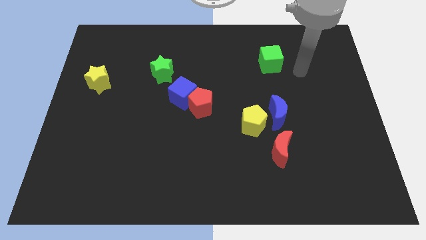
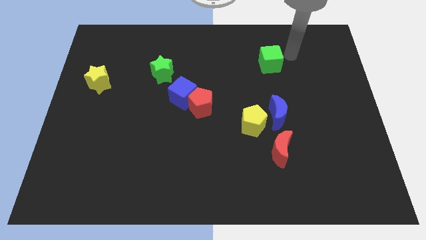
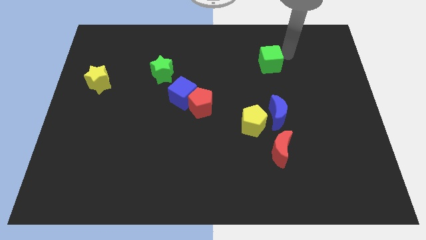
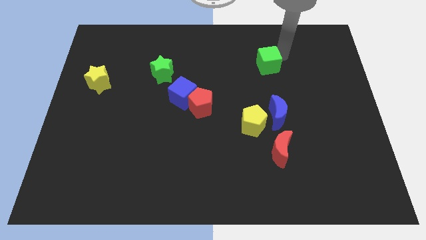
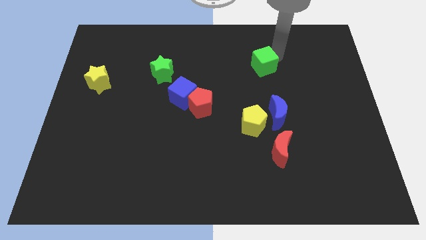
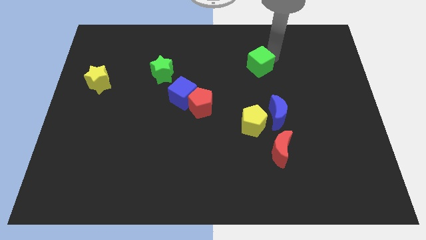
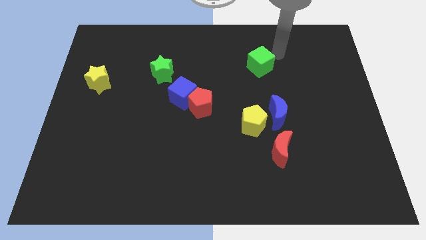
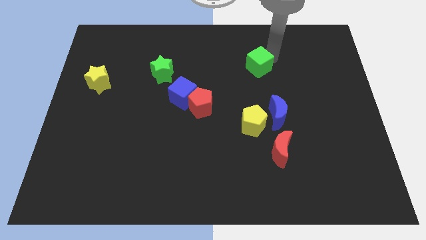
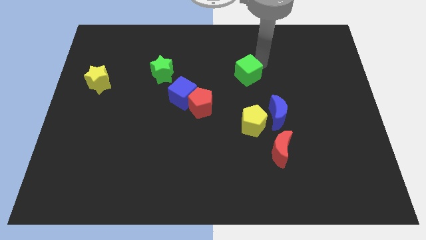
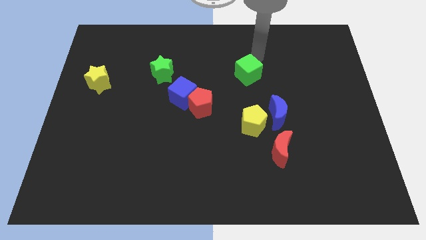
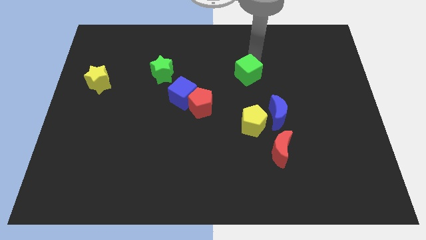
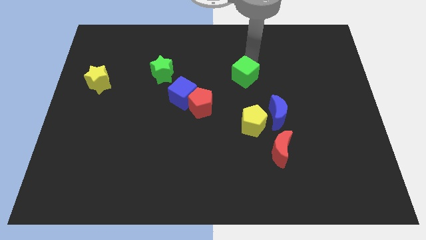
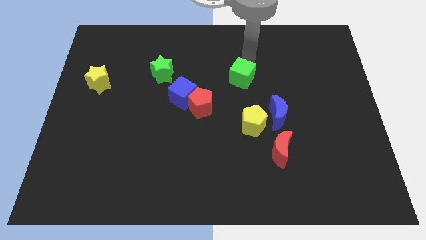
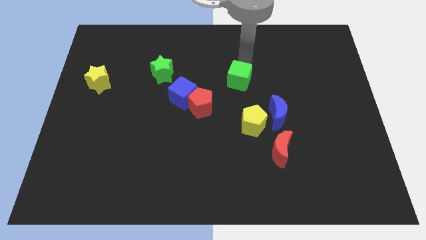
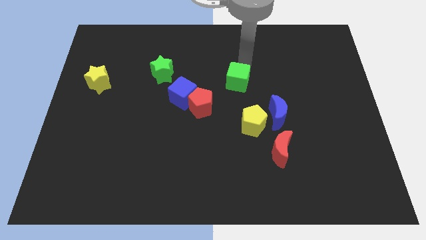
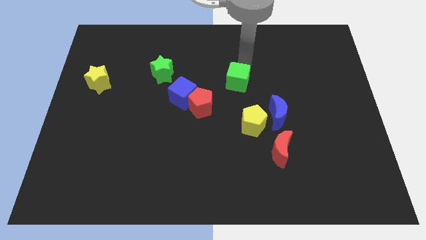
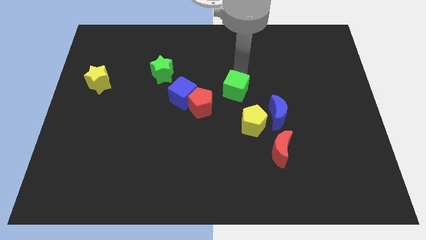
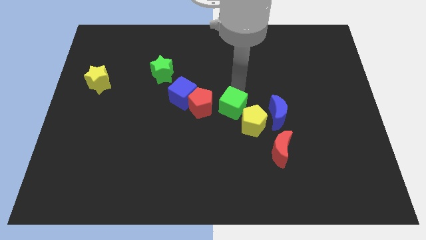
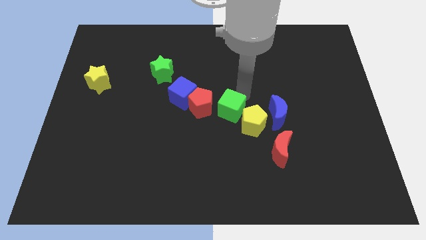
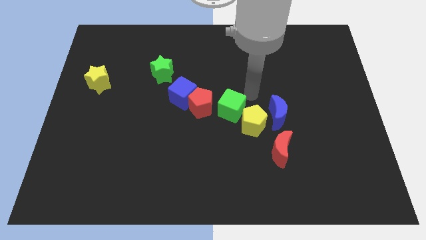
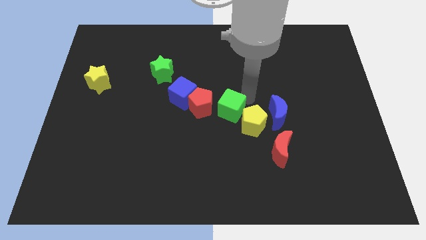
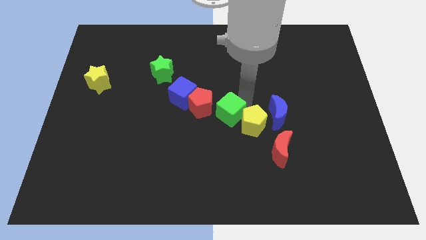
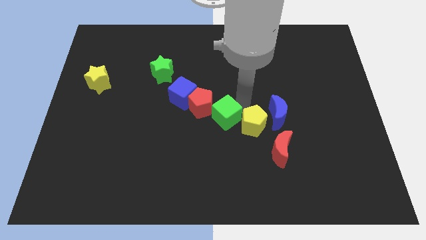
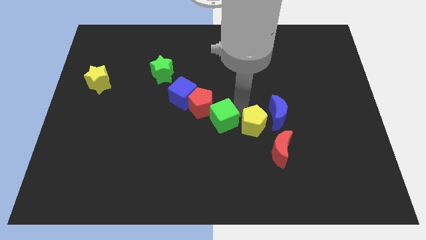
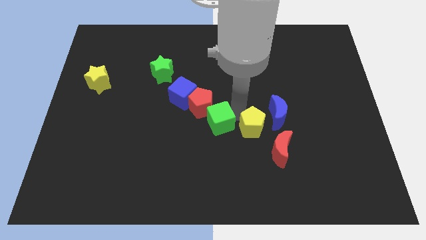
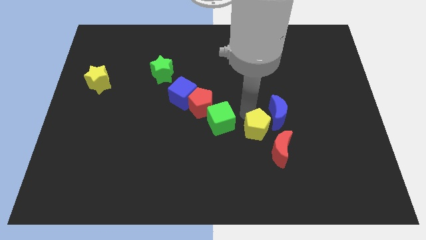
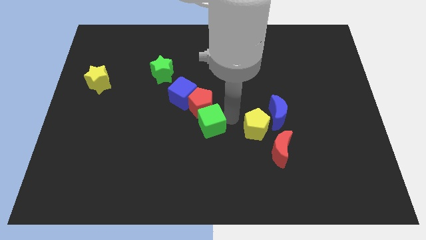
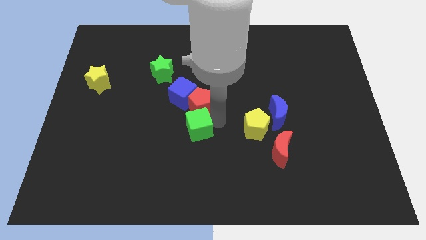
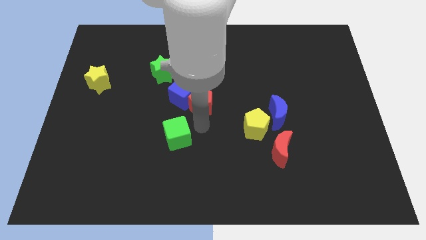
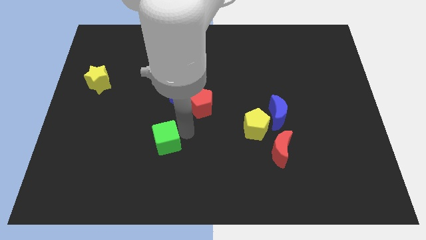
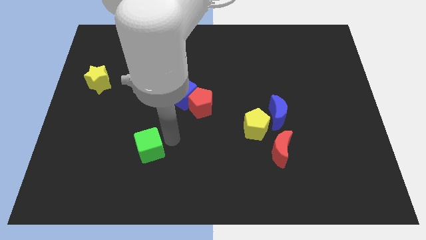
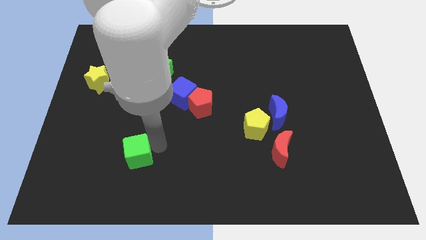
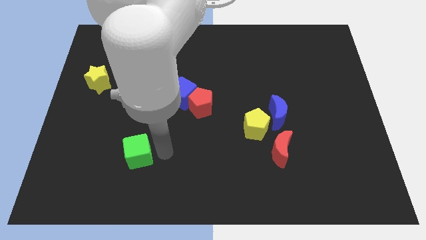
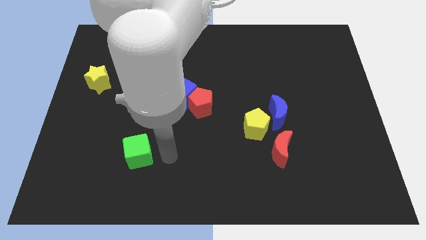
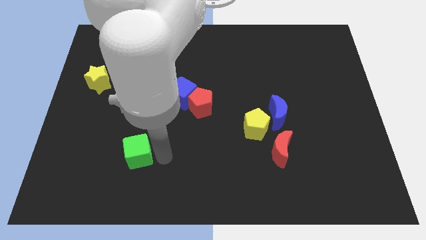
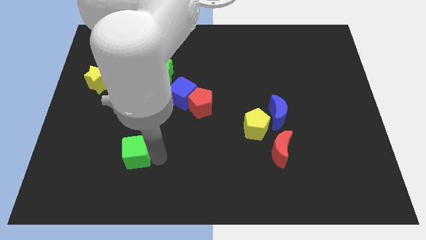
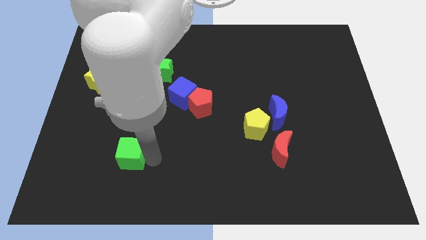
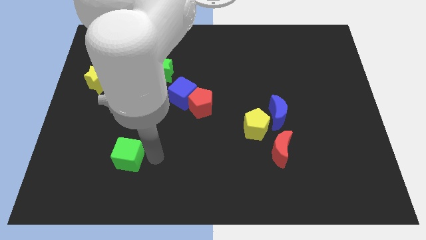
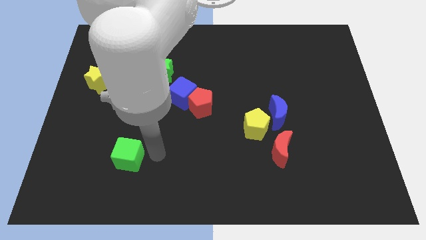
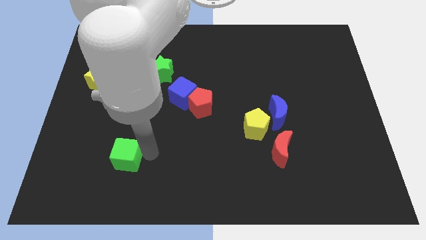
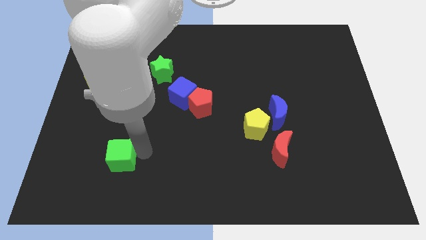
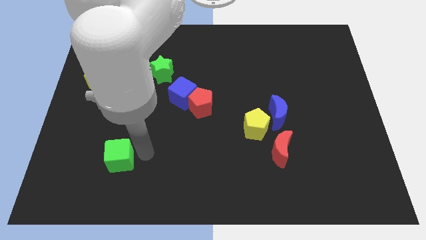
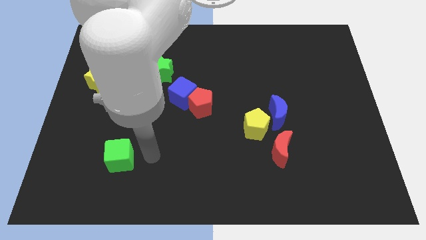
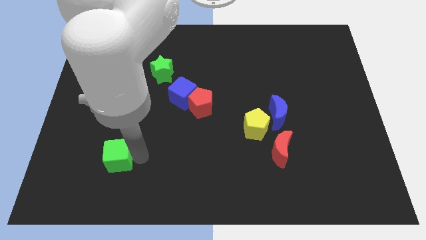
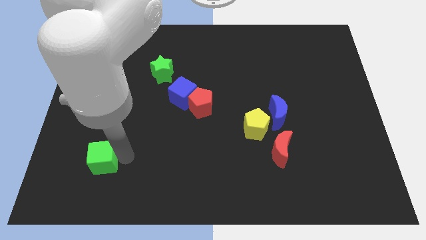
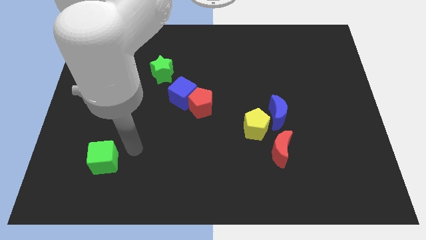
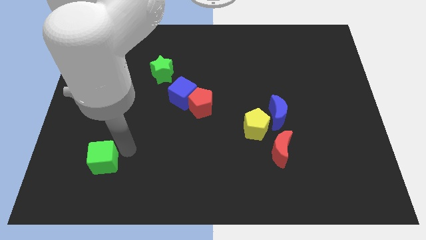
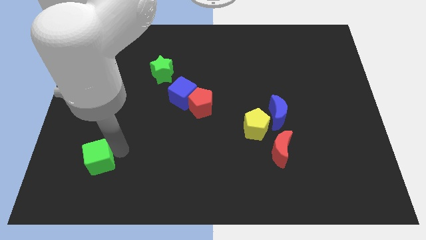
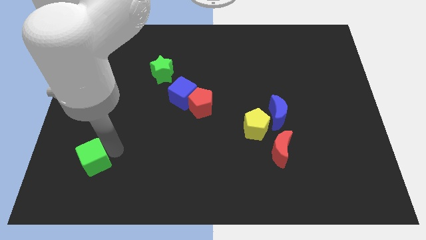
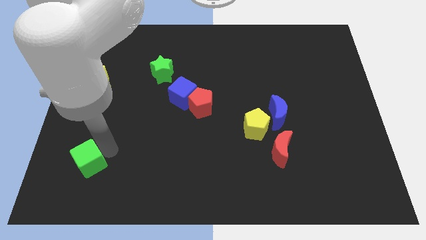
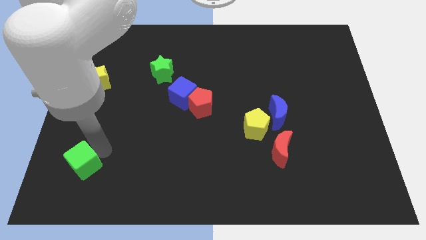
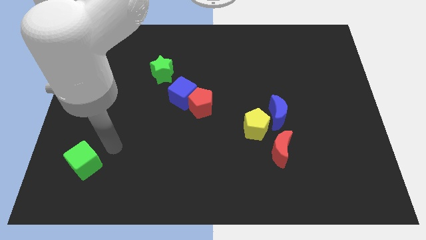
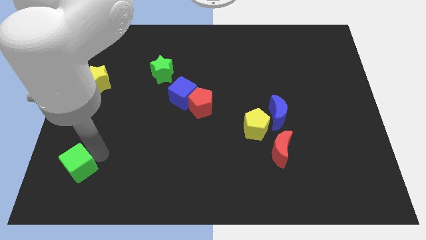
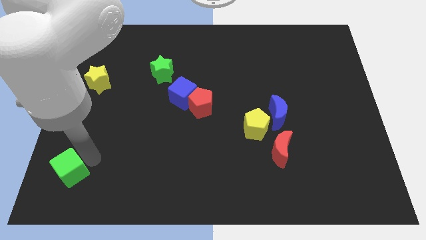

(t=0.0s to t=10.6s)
push the green cube to the bottom left of the board

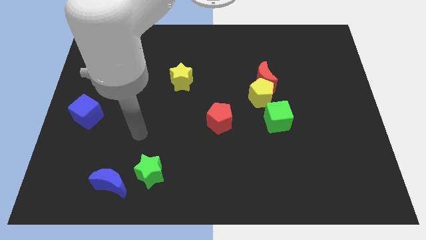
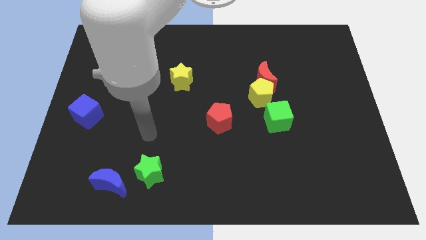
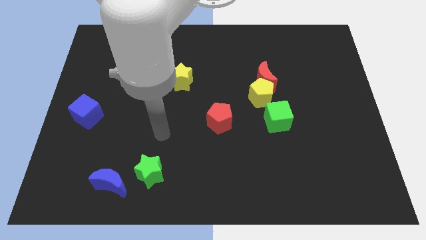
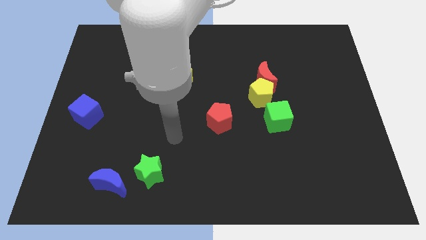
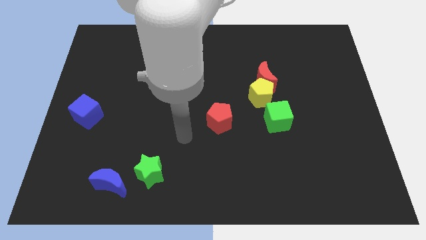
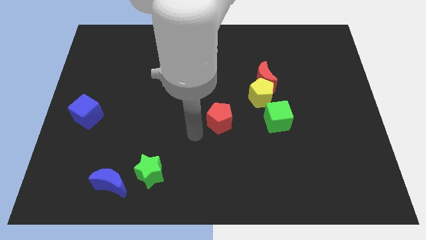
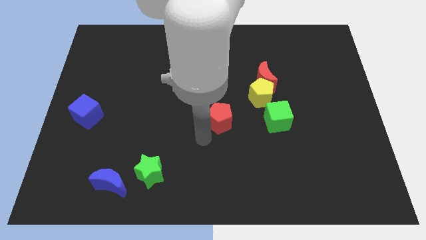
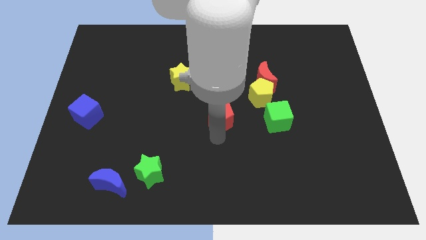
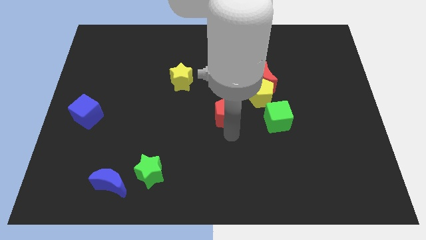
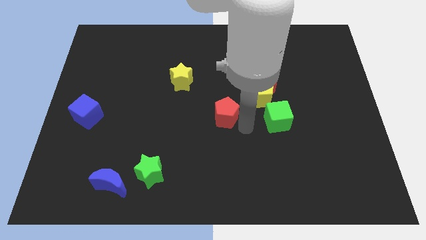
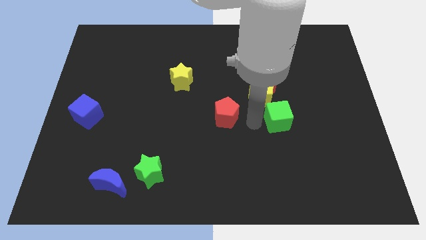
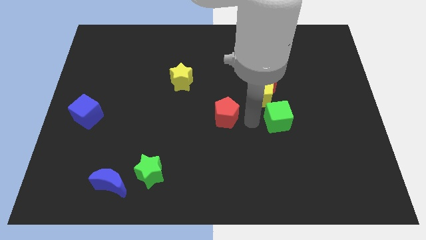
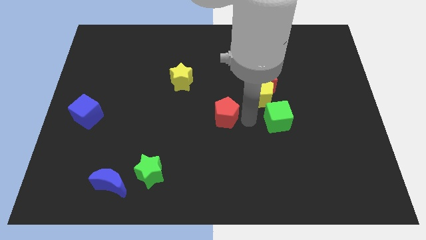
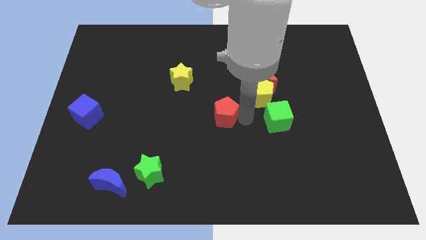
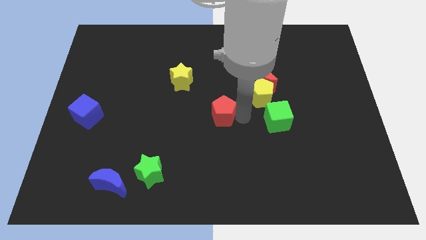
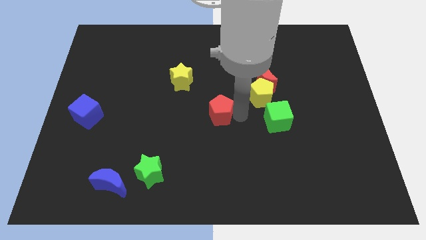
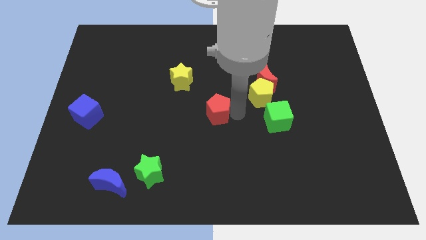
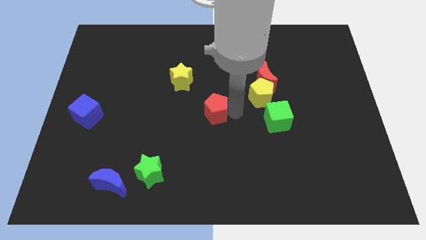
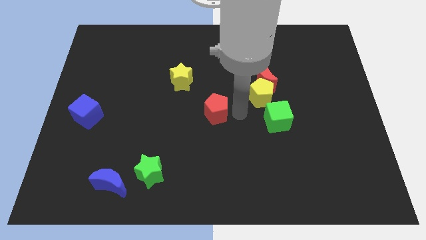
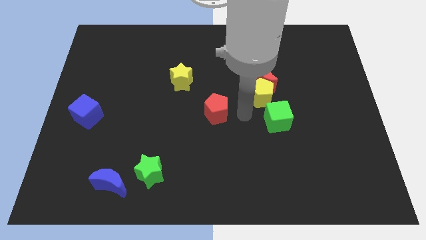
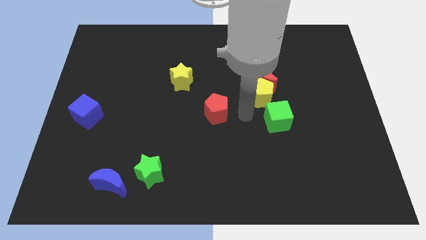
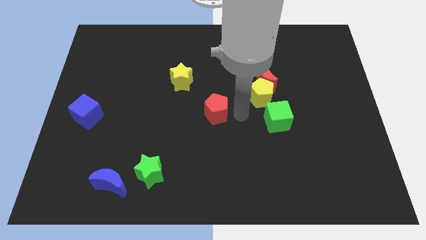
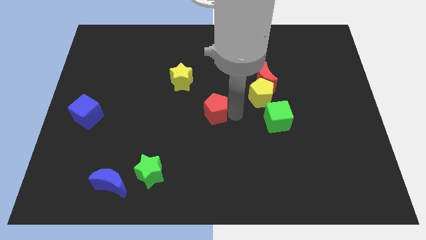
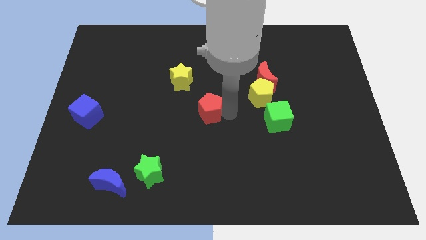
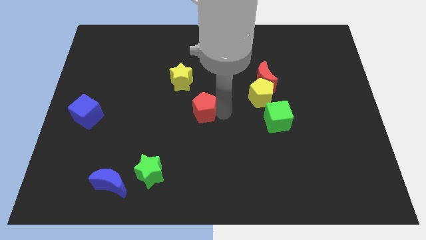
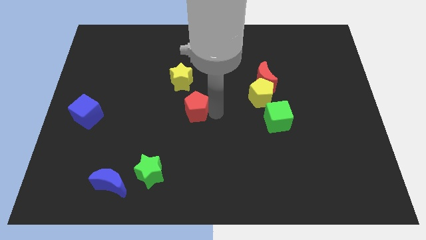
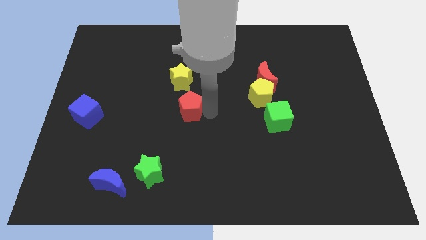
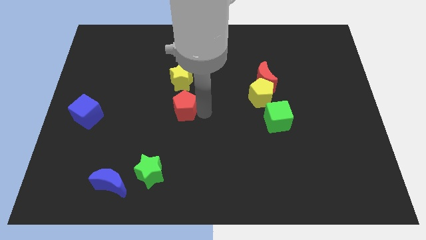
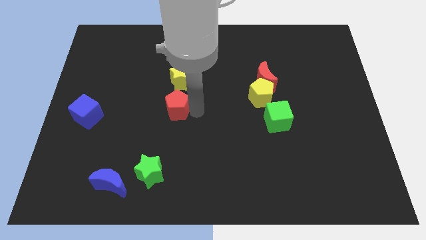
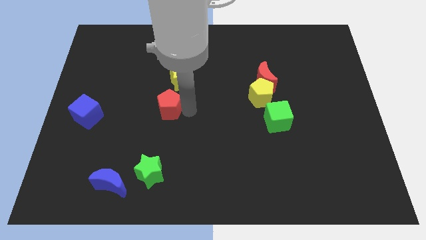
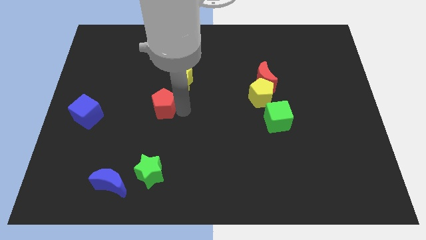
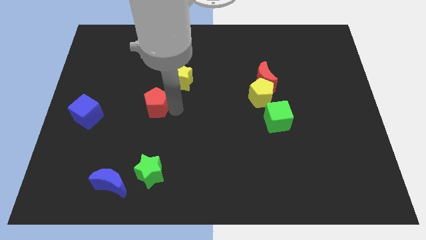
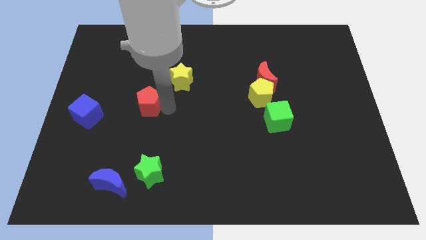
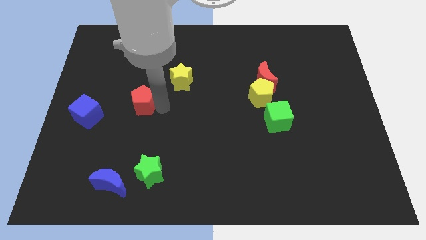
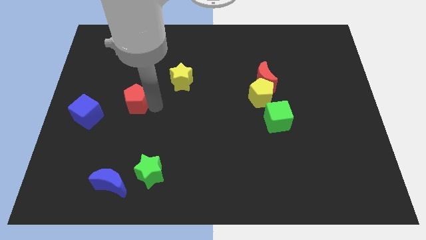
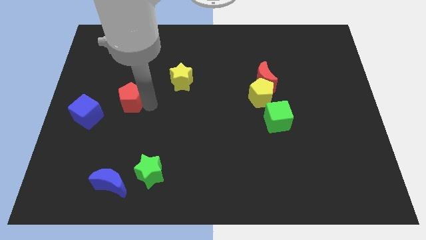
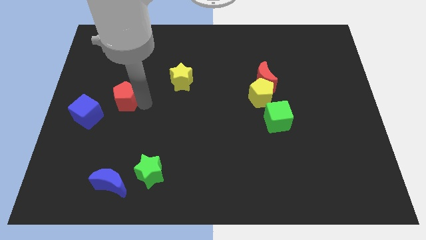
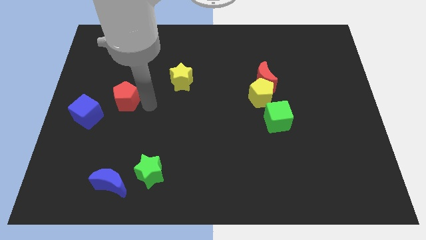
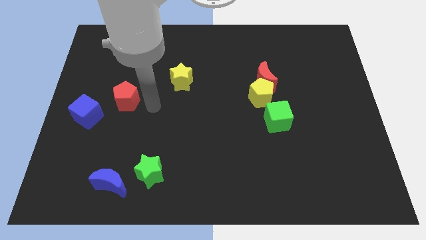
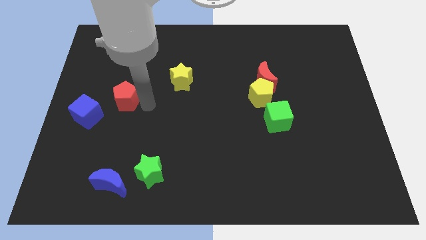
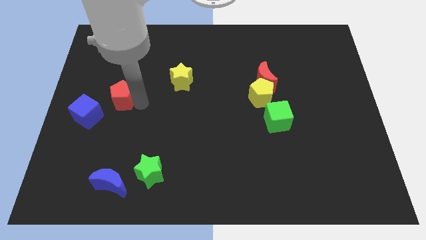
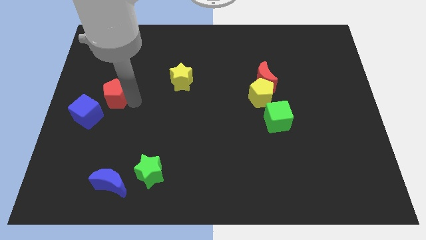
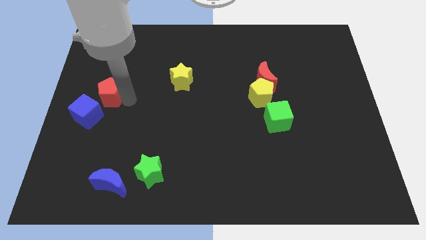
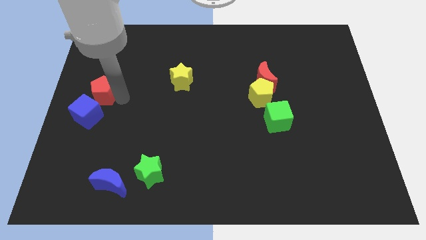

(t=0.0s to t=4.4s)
slide the red pentagon to the center left
